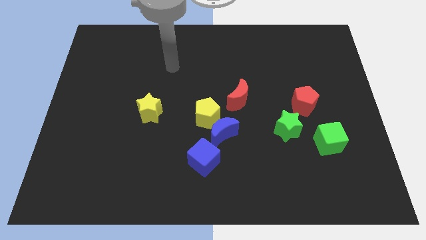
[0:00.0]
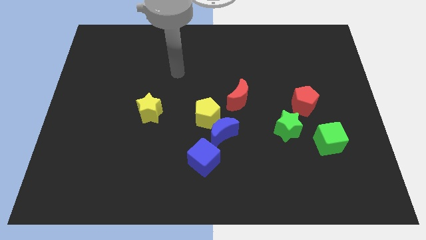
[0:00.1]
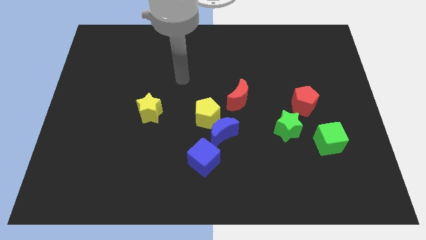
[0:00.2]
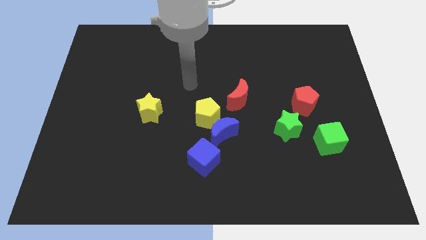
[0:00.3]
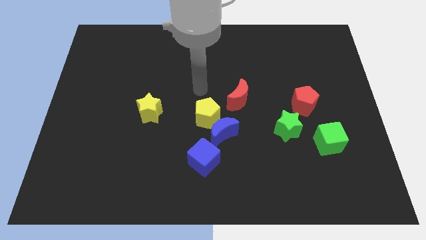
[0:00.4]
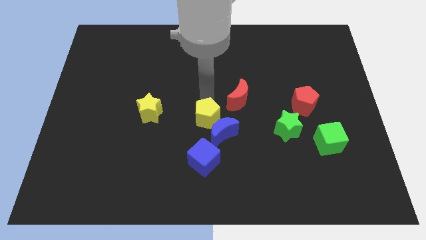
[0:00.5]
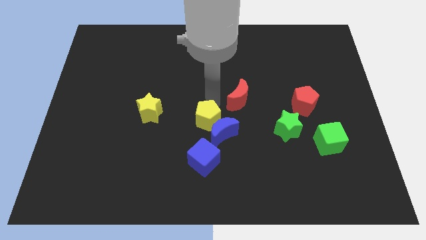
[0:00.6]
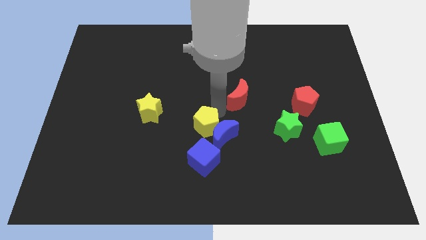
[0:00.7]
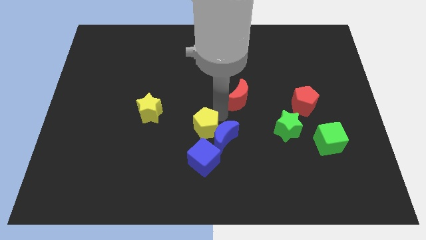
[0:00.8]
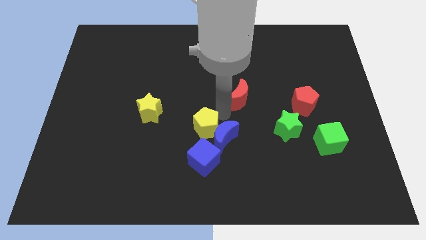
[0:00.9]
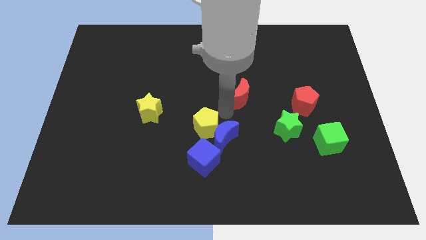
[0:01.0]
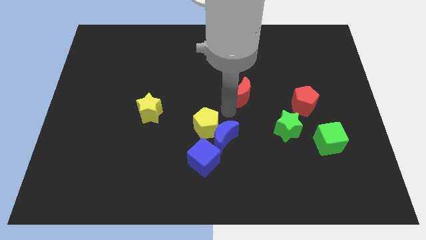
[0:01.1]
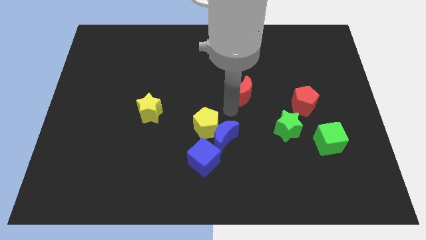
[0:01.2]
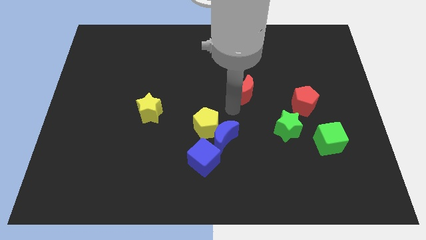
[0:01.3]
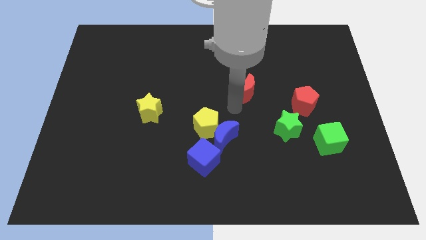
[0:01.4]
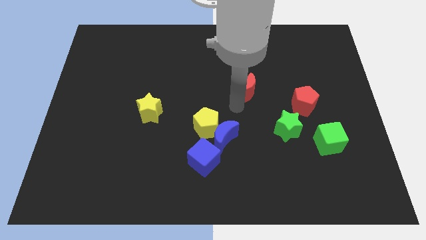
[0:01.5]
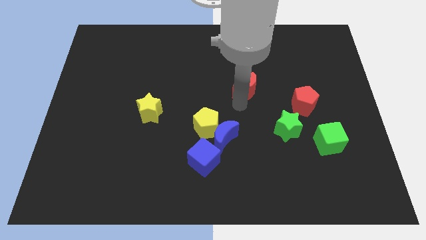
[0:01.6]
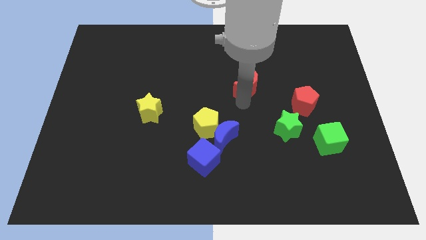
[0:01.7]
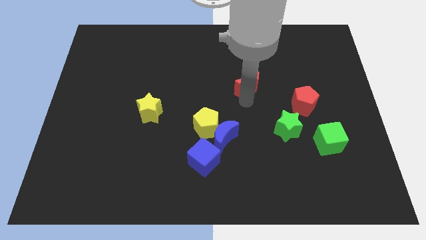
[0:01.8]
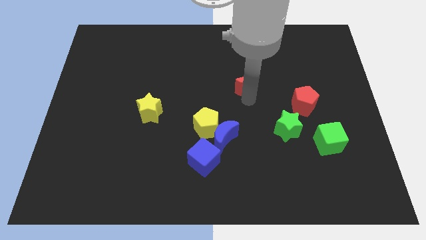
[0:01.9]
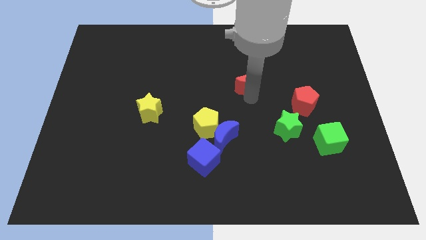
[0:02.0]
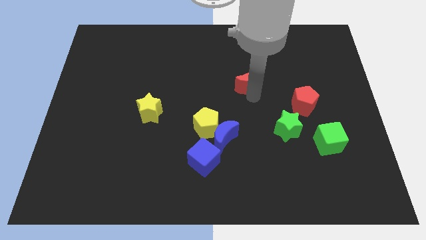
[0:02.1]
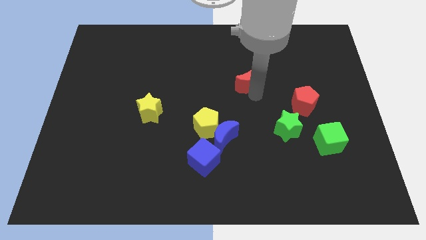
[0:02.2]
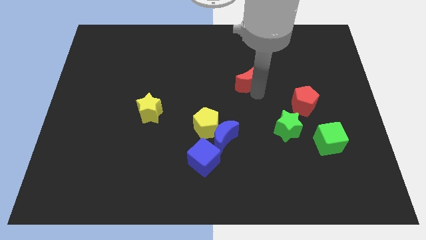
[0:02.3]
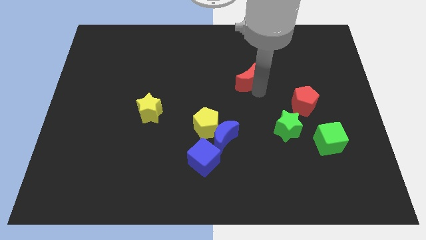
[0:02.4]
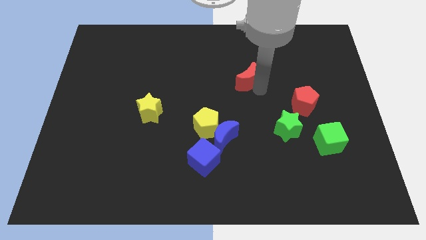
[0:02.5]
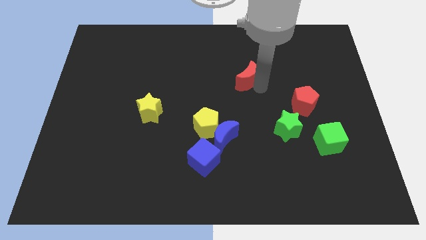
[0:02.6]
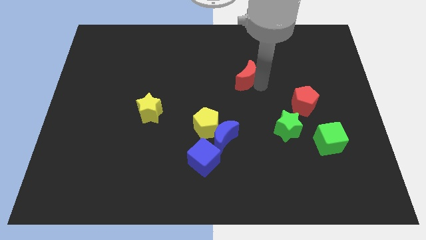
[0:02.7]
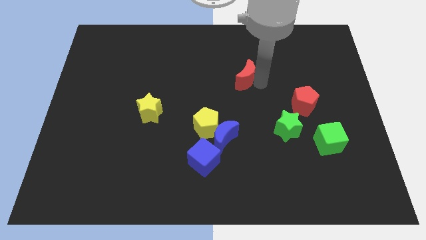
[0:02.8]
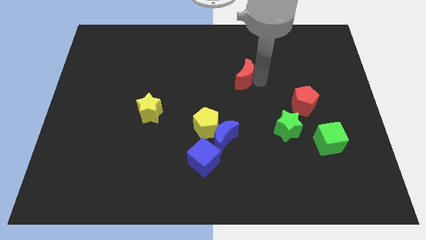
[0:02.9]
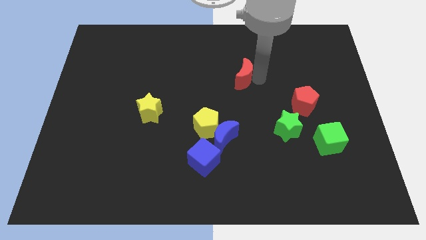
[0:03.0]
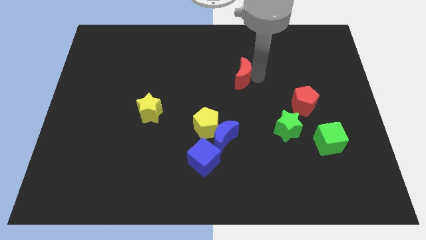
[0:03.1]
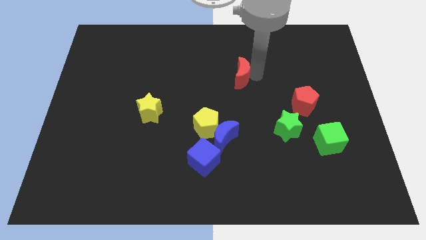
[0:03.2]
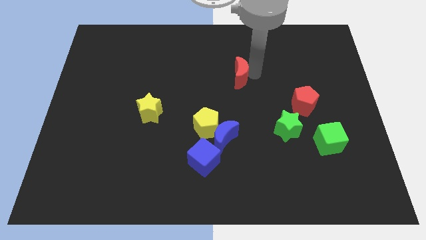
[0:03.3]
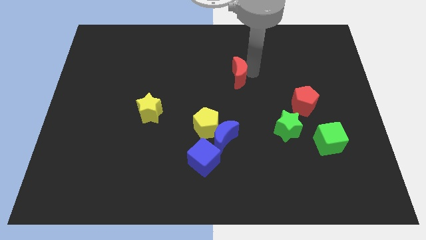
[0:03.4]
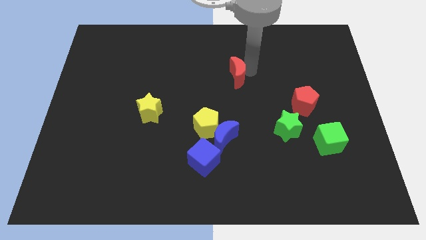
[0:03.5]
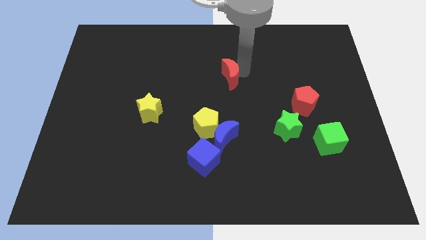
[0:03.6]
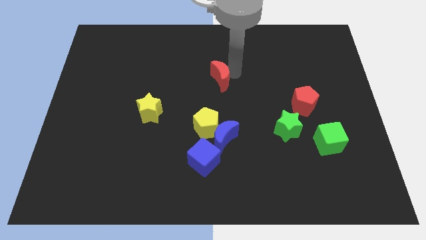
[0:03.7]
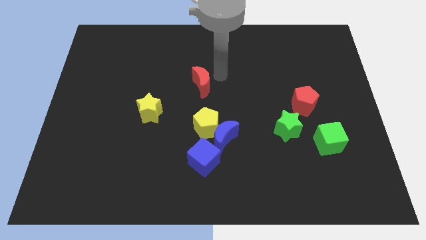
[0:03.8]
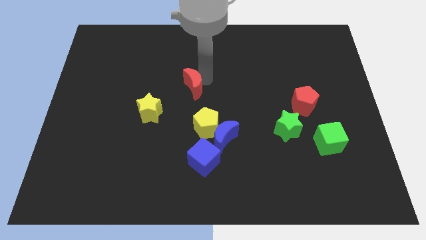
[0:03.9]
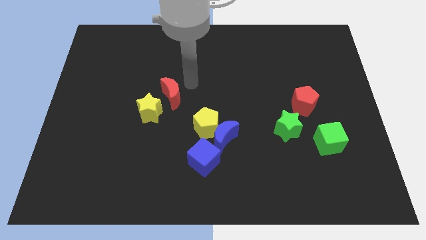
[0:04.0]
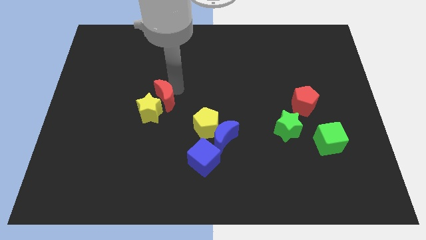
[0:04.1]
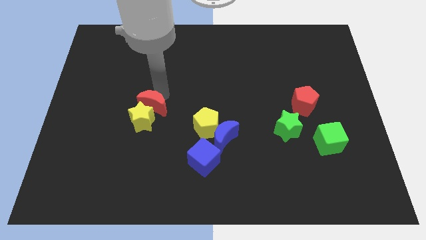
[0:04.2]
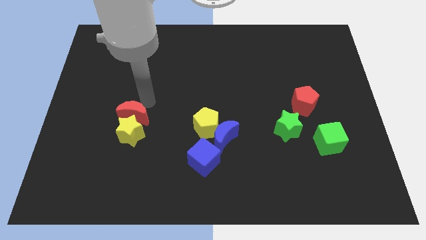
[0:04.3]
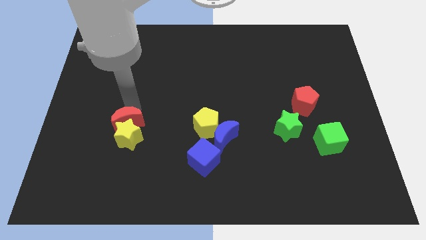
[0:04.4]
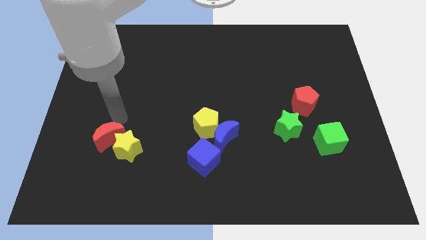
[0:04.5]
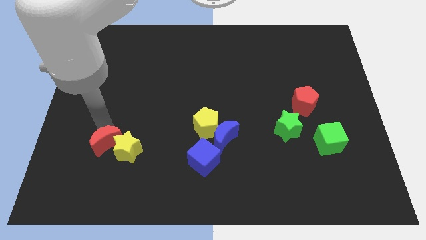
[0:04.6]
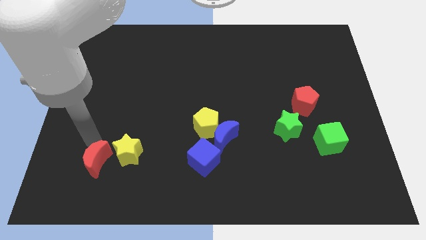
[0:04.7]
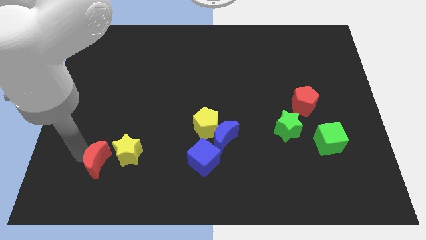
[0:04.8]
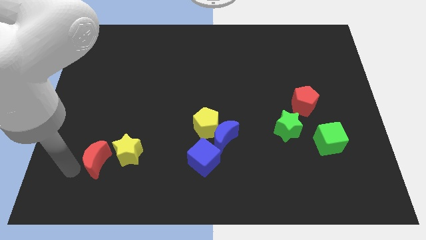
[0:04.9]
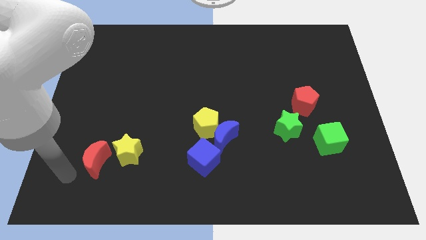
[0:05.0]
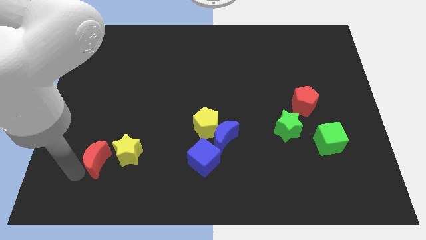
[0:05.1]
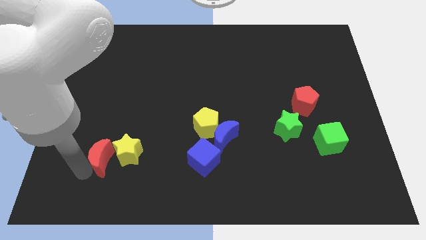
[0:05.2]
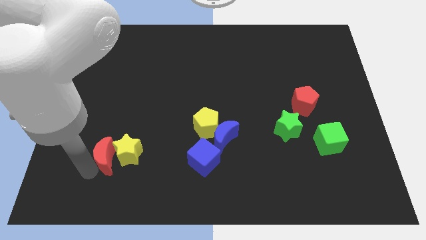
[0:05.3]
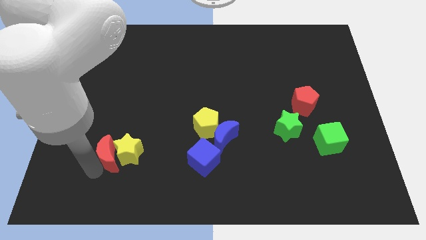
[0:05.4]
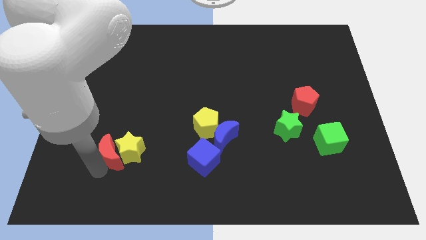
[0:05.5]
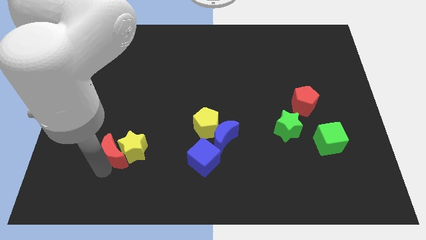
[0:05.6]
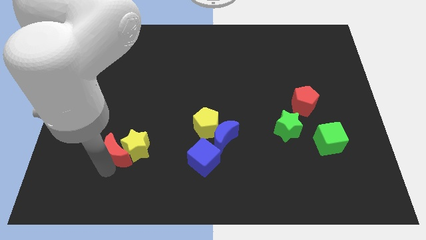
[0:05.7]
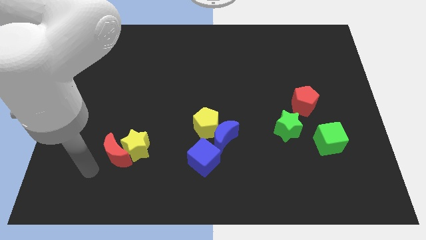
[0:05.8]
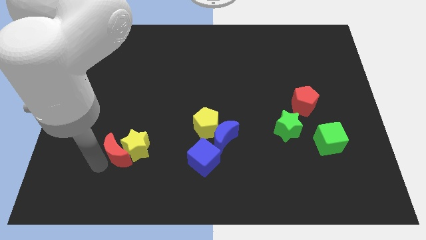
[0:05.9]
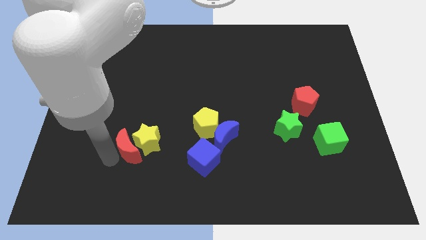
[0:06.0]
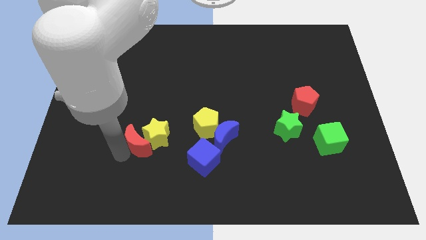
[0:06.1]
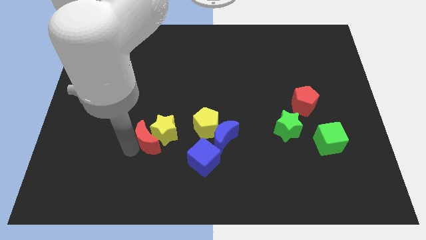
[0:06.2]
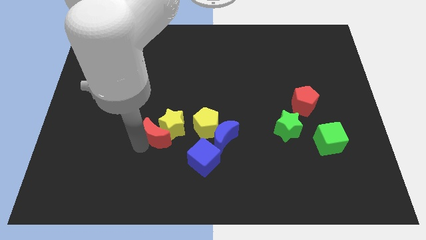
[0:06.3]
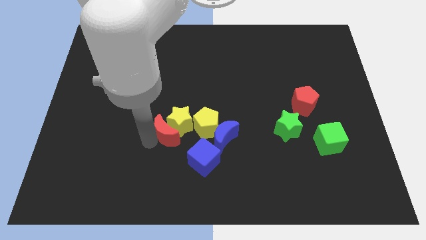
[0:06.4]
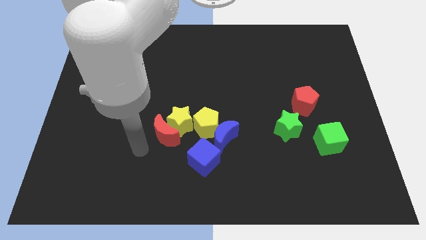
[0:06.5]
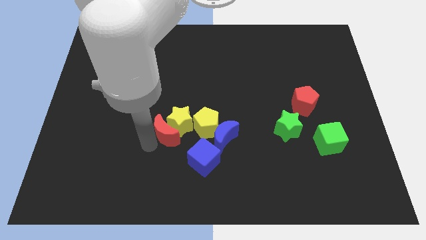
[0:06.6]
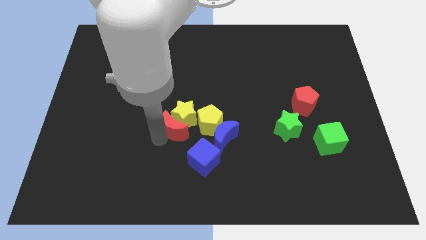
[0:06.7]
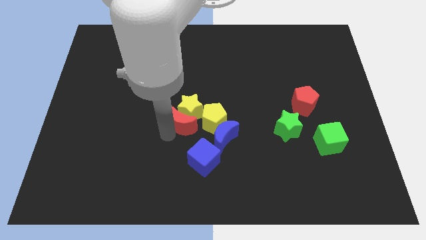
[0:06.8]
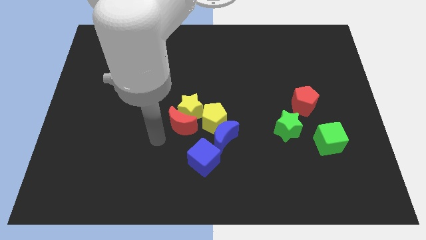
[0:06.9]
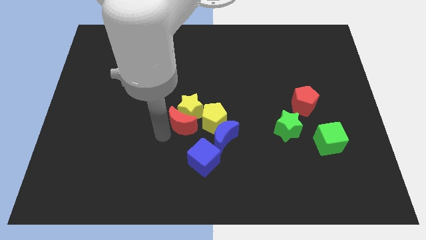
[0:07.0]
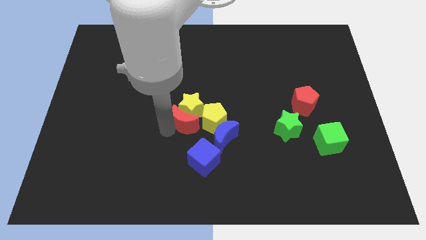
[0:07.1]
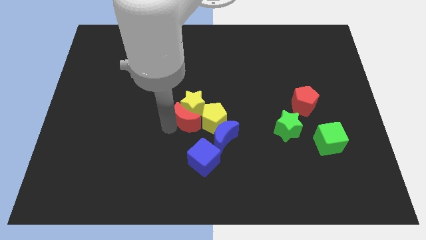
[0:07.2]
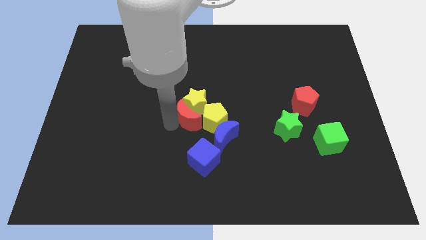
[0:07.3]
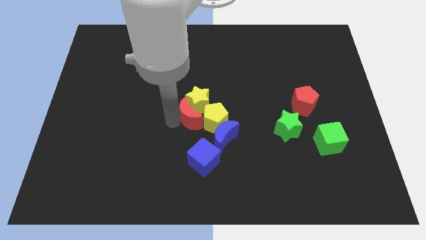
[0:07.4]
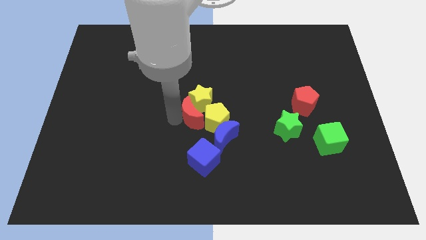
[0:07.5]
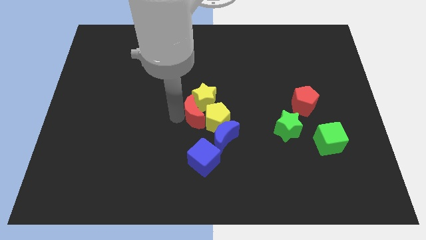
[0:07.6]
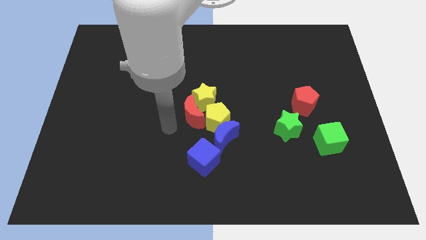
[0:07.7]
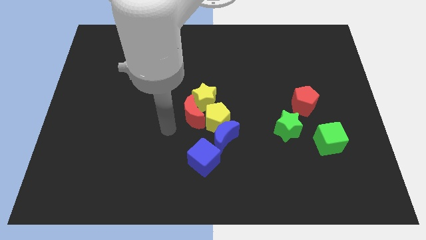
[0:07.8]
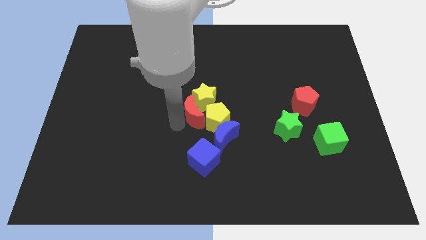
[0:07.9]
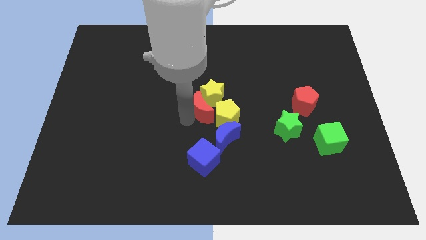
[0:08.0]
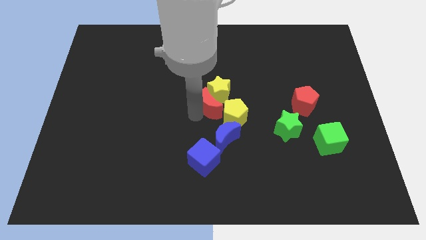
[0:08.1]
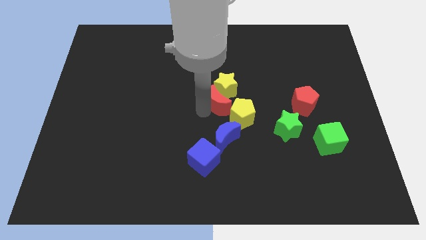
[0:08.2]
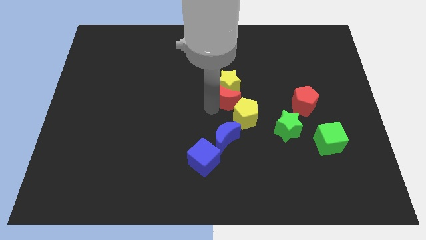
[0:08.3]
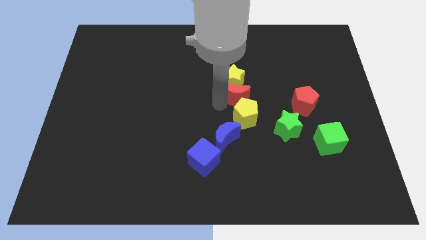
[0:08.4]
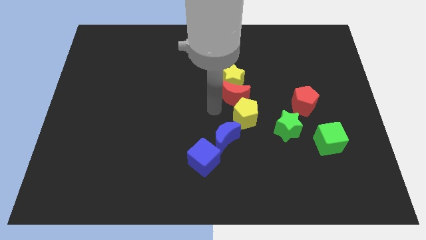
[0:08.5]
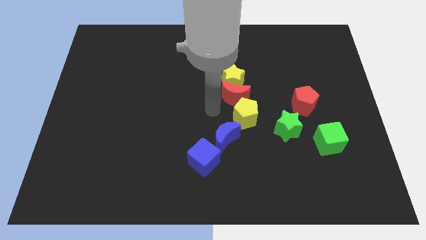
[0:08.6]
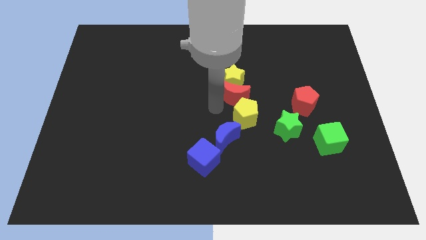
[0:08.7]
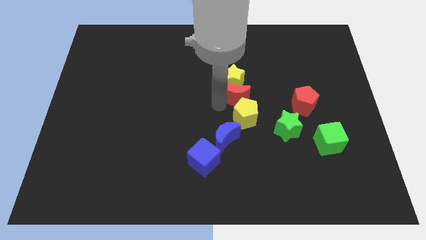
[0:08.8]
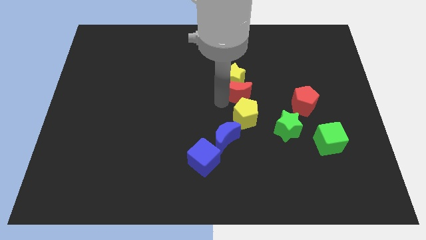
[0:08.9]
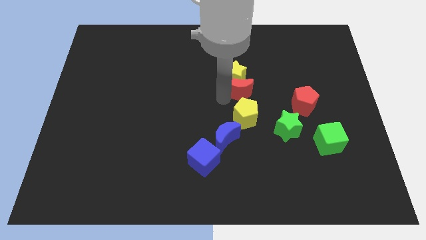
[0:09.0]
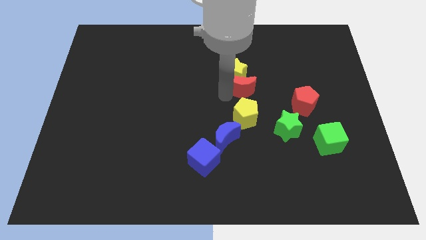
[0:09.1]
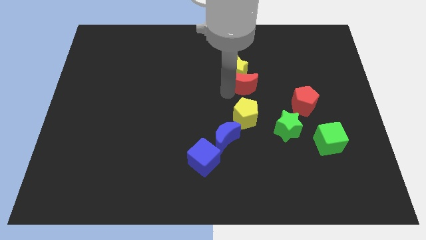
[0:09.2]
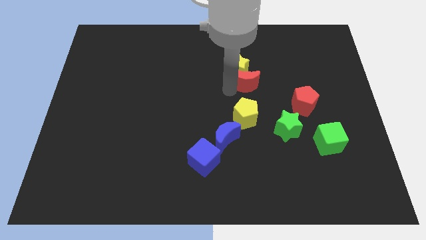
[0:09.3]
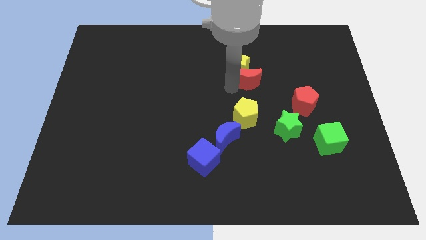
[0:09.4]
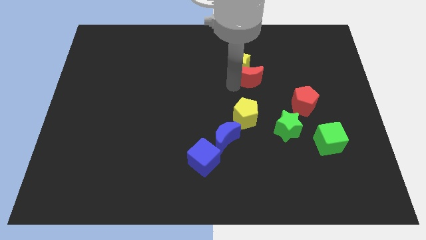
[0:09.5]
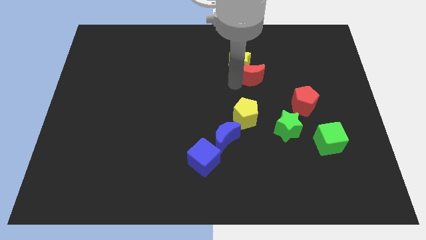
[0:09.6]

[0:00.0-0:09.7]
slightly push the red moon upwards and to the right diagonally
